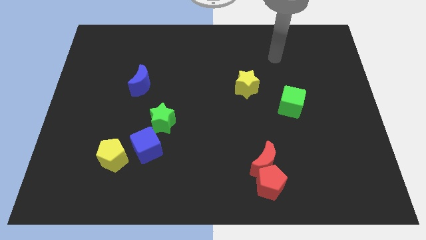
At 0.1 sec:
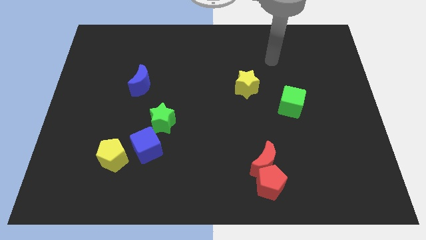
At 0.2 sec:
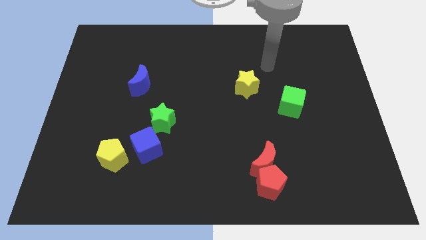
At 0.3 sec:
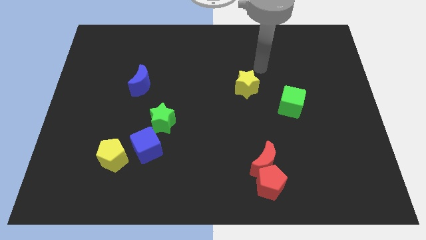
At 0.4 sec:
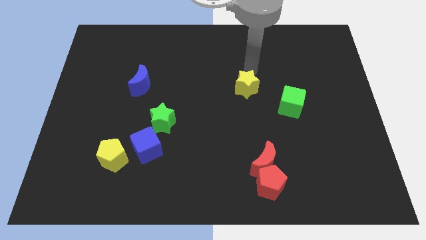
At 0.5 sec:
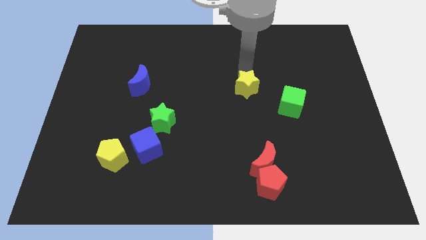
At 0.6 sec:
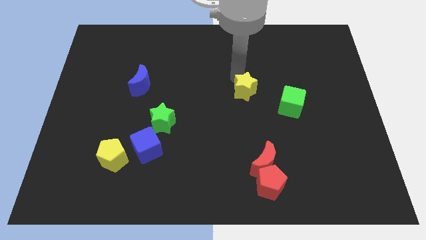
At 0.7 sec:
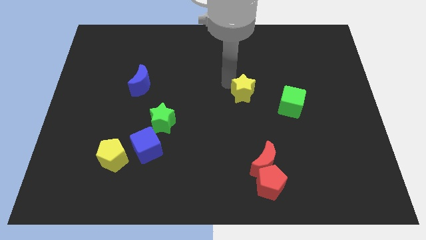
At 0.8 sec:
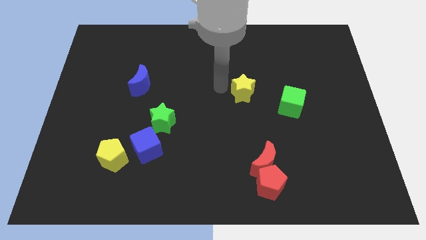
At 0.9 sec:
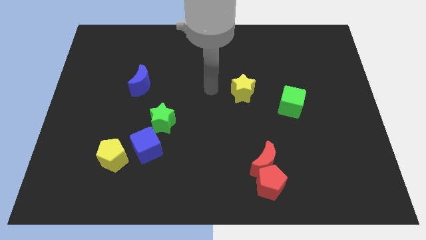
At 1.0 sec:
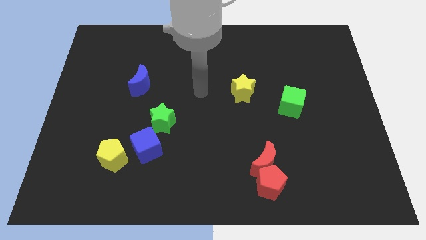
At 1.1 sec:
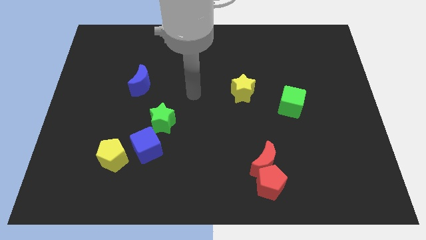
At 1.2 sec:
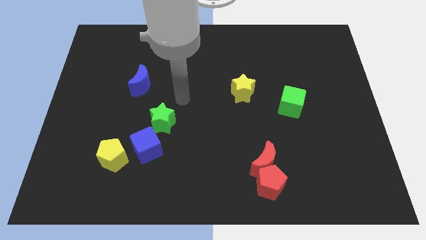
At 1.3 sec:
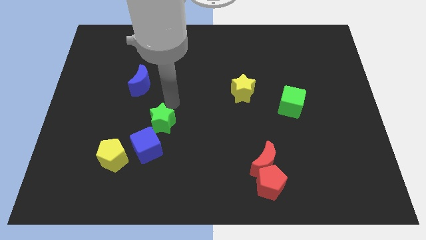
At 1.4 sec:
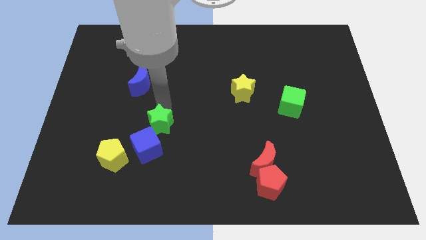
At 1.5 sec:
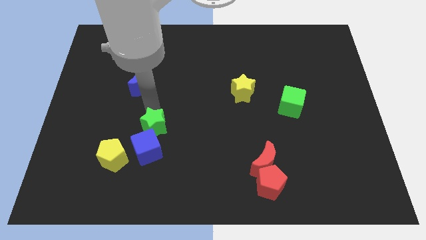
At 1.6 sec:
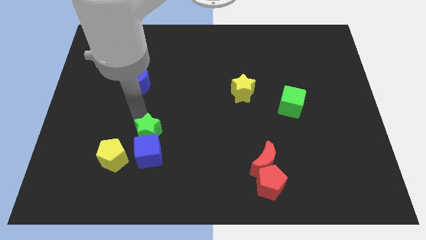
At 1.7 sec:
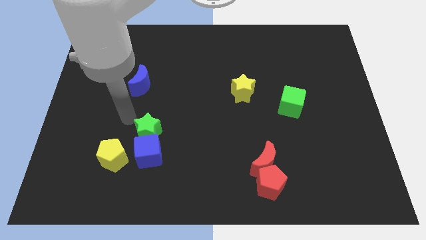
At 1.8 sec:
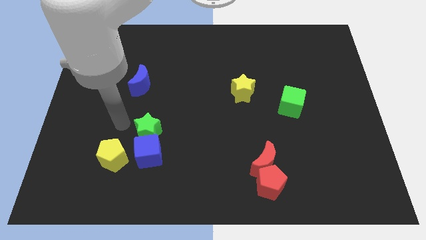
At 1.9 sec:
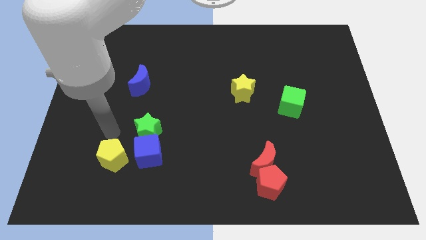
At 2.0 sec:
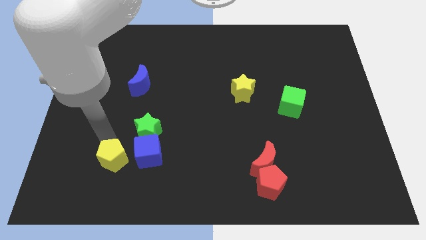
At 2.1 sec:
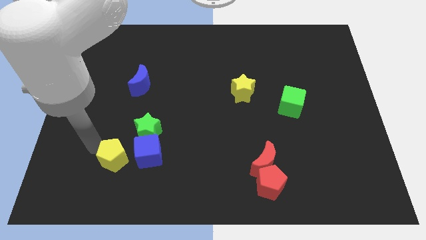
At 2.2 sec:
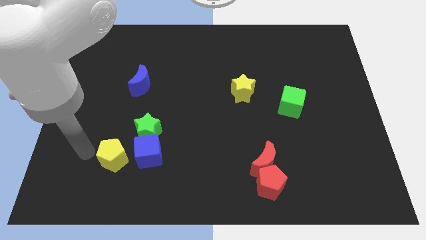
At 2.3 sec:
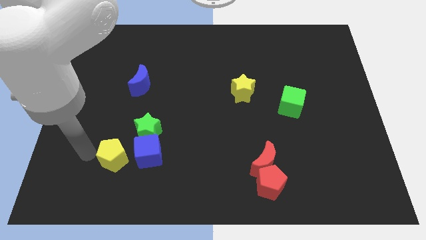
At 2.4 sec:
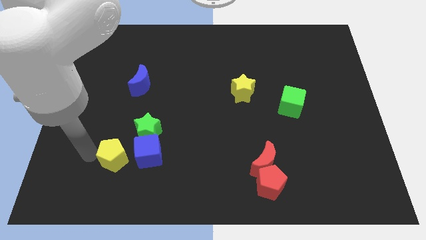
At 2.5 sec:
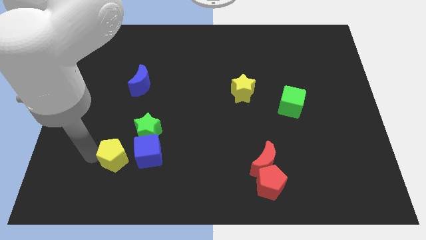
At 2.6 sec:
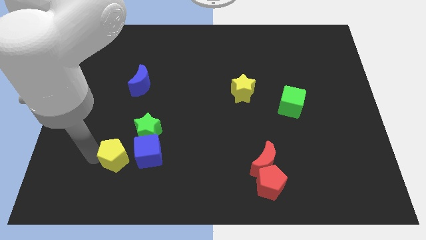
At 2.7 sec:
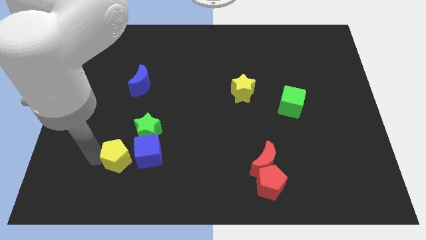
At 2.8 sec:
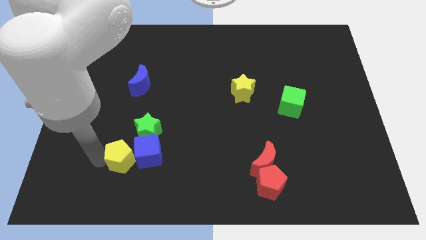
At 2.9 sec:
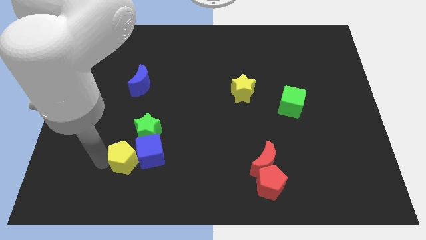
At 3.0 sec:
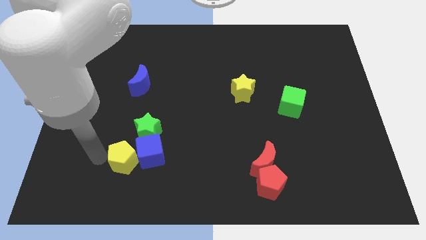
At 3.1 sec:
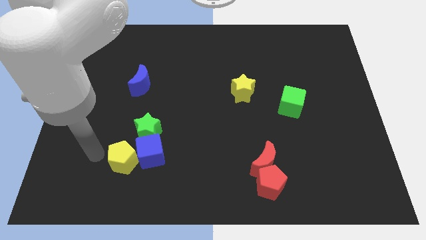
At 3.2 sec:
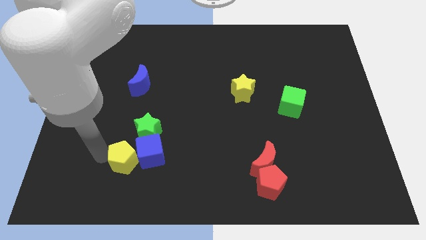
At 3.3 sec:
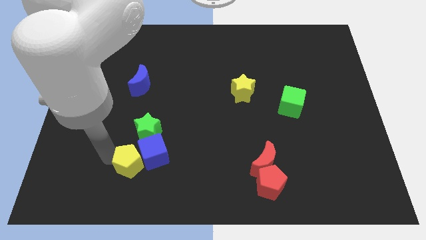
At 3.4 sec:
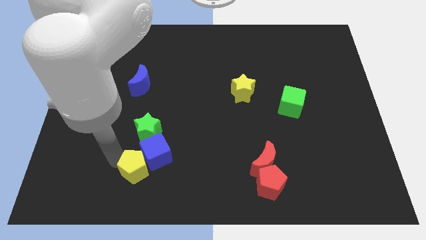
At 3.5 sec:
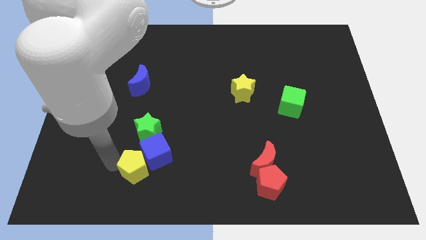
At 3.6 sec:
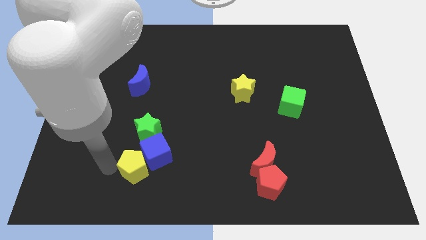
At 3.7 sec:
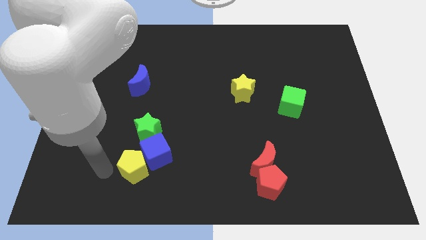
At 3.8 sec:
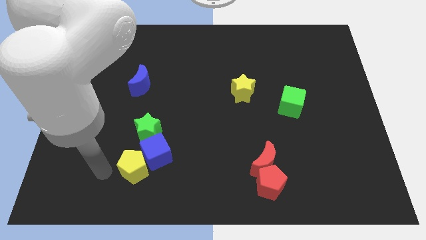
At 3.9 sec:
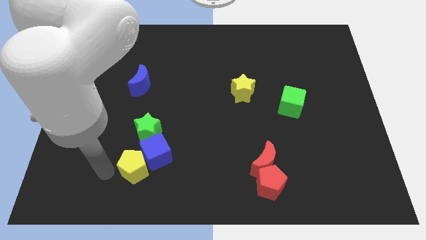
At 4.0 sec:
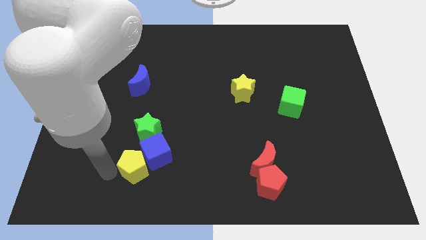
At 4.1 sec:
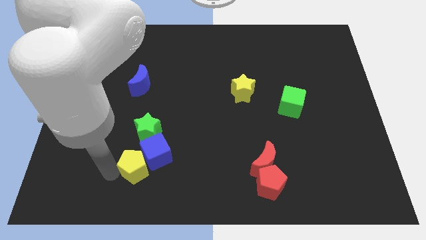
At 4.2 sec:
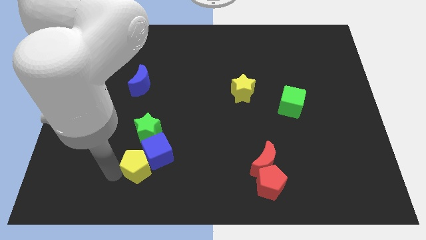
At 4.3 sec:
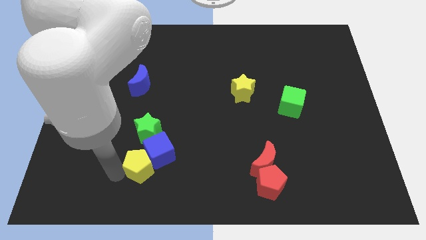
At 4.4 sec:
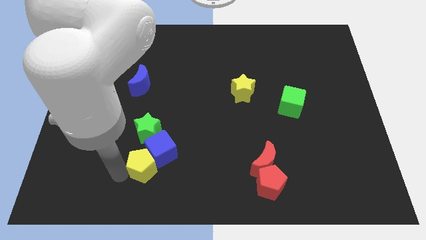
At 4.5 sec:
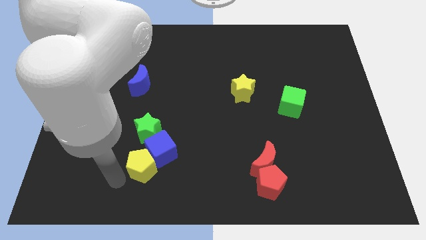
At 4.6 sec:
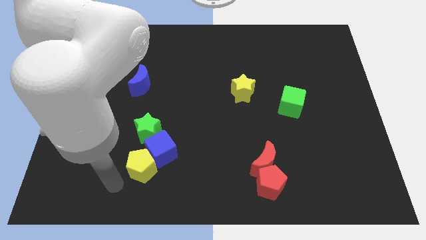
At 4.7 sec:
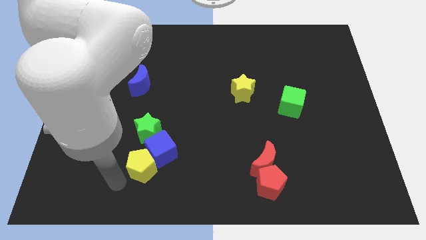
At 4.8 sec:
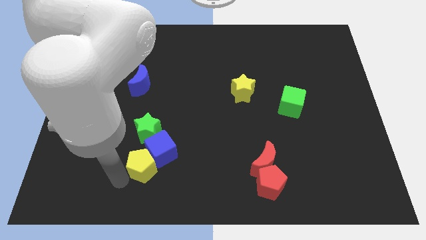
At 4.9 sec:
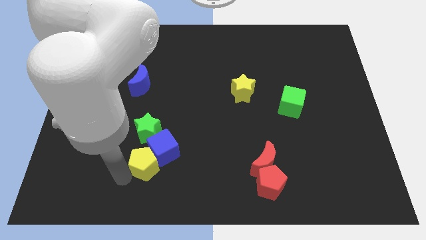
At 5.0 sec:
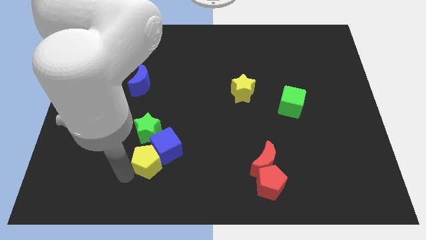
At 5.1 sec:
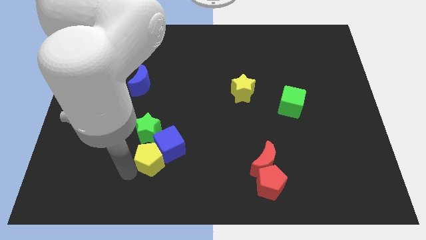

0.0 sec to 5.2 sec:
push the yellow pentagon to the bottom right side of the green star

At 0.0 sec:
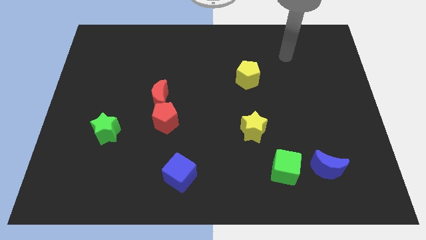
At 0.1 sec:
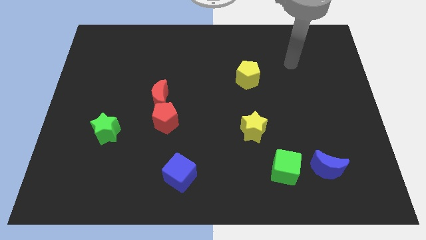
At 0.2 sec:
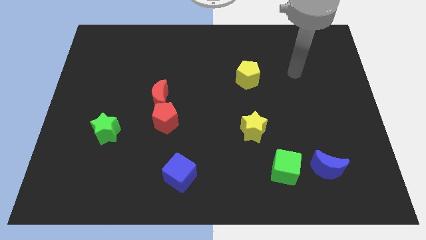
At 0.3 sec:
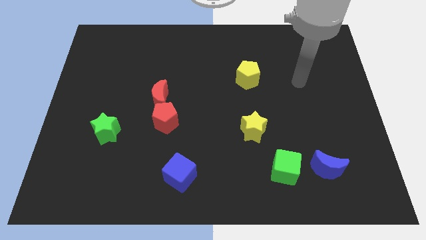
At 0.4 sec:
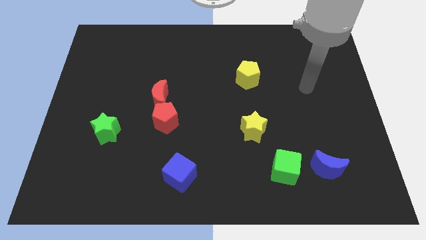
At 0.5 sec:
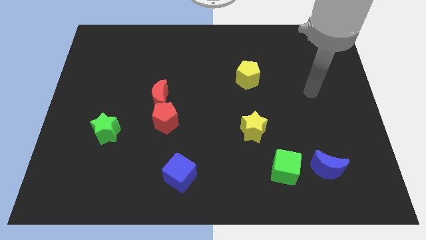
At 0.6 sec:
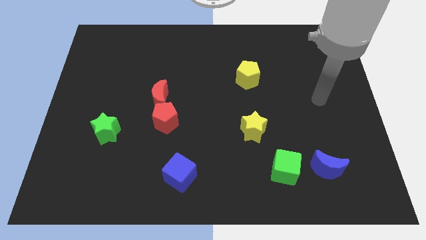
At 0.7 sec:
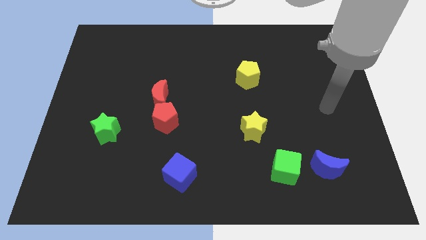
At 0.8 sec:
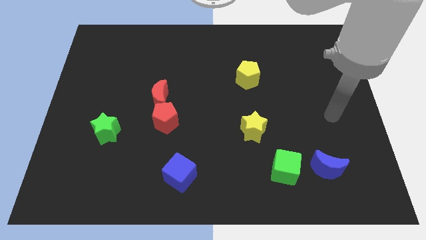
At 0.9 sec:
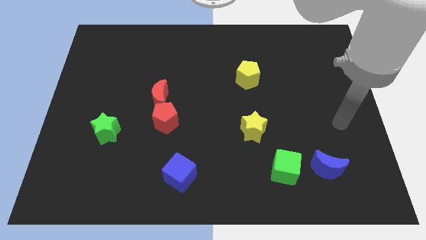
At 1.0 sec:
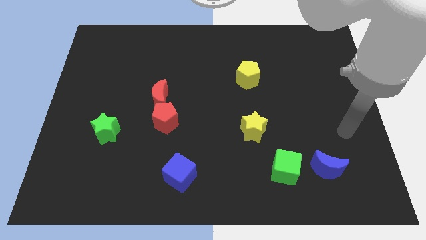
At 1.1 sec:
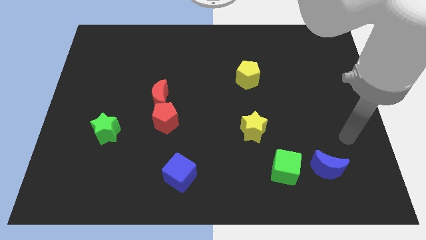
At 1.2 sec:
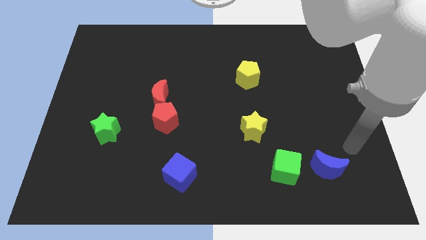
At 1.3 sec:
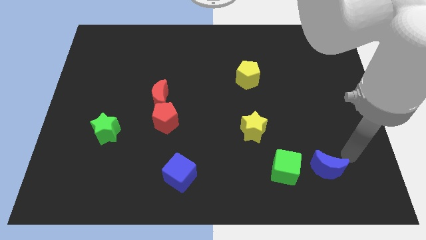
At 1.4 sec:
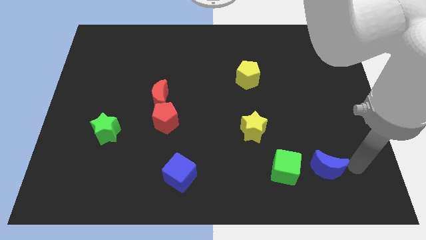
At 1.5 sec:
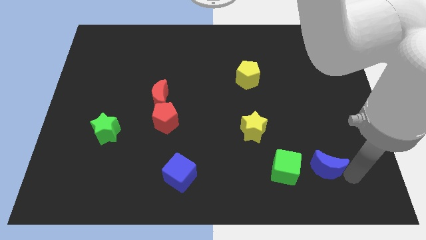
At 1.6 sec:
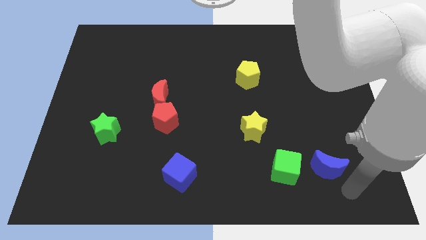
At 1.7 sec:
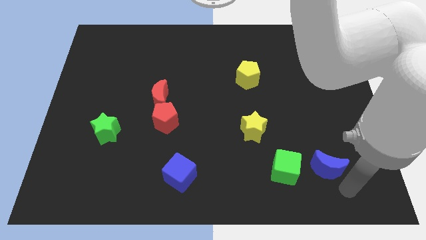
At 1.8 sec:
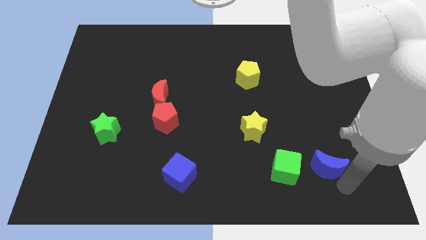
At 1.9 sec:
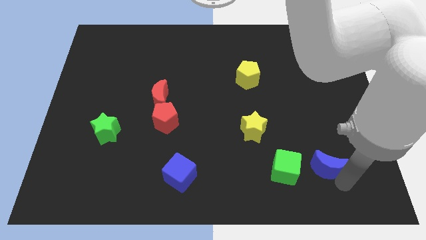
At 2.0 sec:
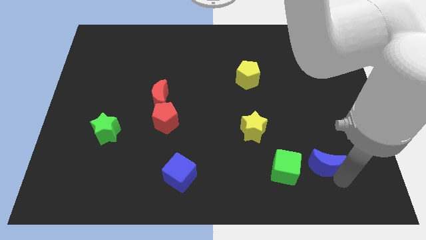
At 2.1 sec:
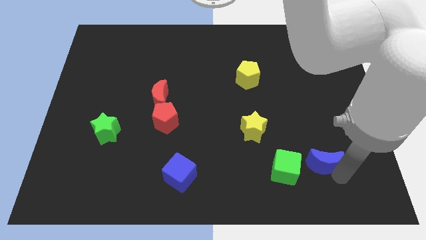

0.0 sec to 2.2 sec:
put the blue moon to the top right of the green cube

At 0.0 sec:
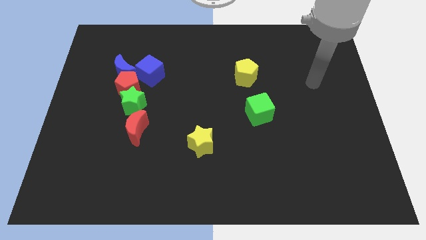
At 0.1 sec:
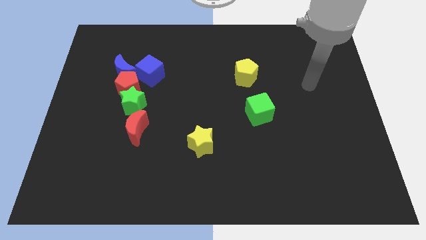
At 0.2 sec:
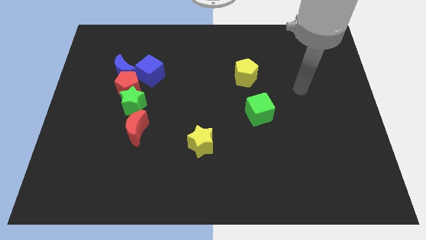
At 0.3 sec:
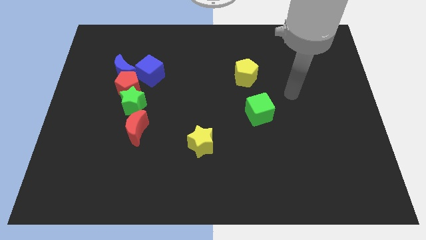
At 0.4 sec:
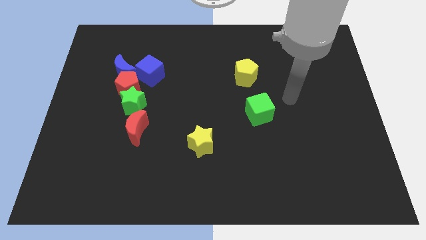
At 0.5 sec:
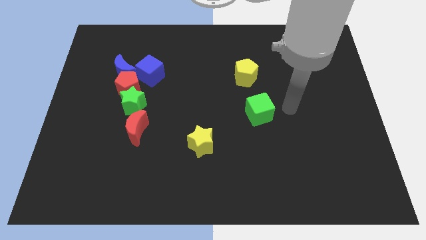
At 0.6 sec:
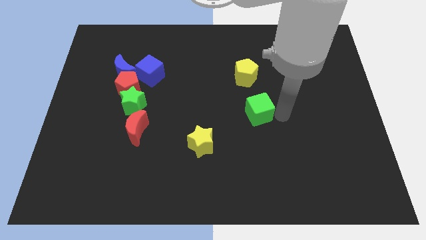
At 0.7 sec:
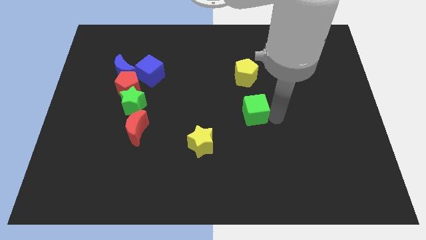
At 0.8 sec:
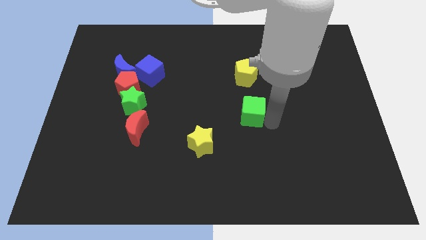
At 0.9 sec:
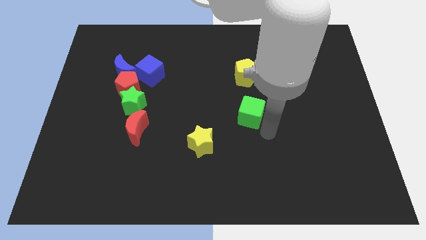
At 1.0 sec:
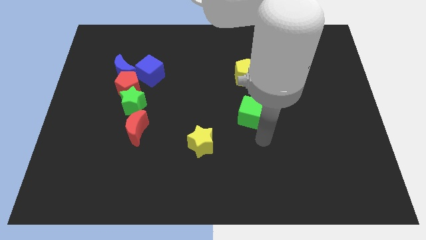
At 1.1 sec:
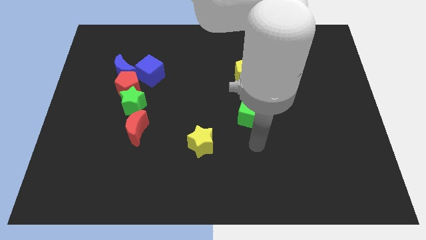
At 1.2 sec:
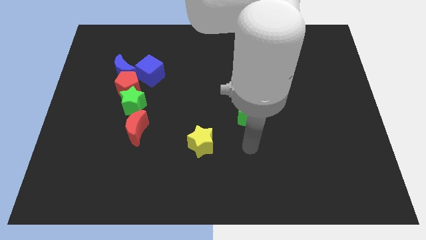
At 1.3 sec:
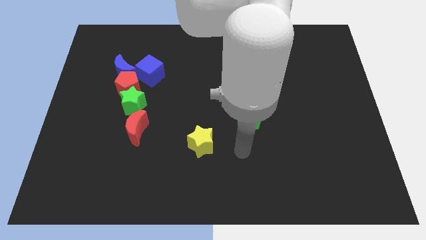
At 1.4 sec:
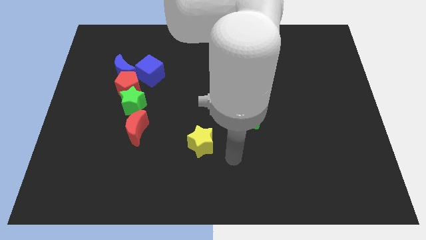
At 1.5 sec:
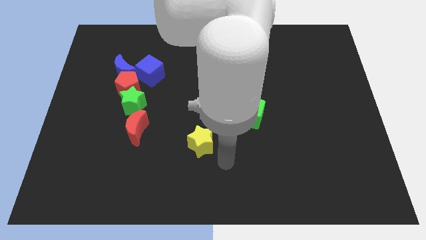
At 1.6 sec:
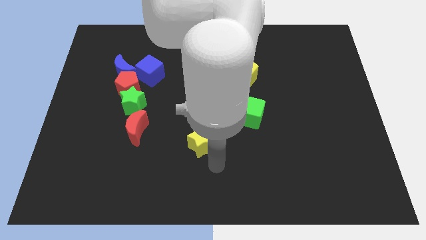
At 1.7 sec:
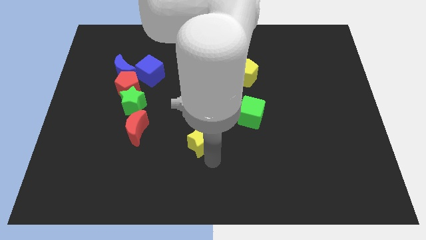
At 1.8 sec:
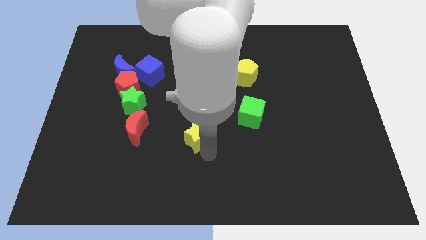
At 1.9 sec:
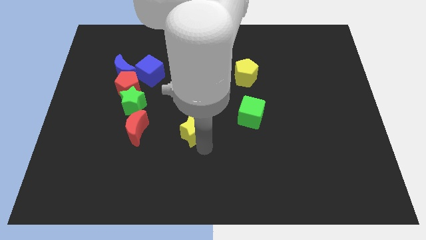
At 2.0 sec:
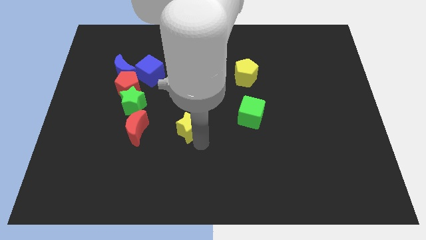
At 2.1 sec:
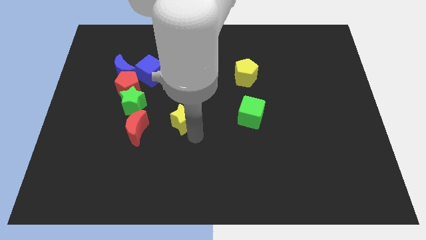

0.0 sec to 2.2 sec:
push the yellow star right of the green star
